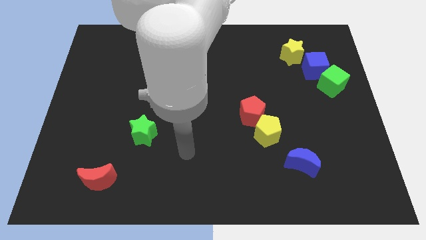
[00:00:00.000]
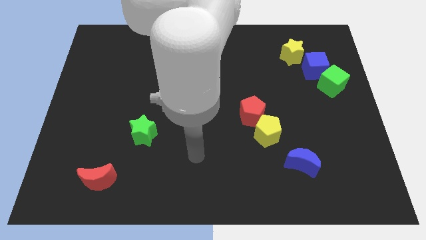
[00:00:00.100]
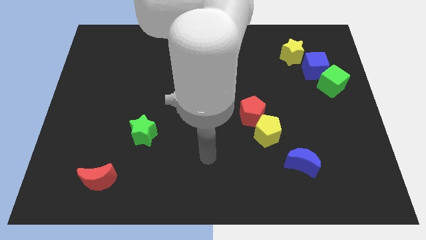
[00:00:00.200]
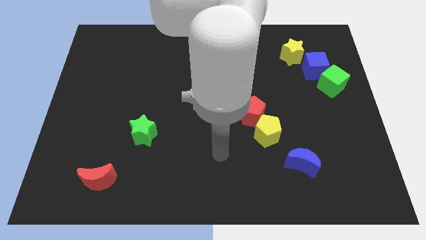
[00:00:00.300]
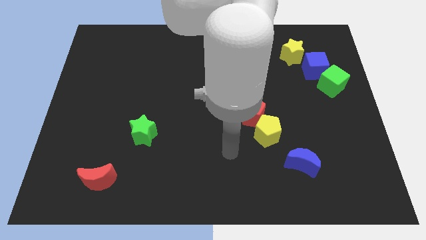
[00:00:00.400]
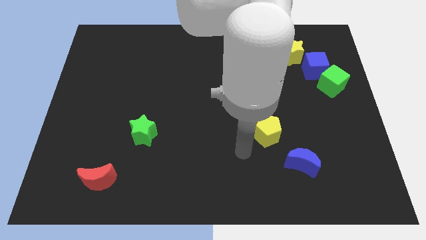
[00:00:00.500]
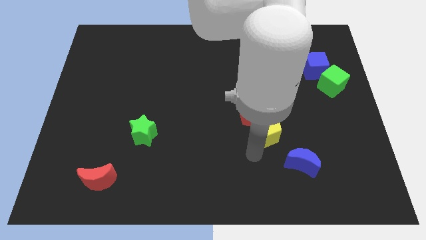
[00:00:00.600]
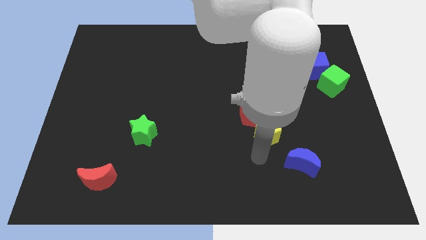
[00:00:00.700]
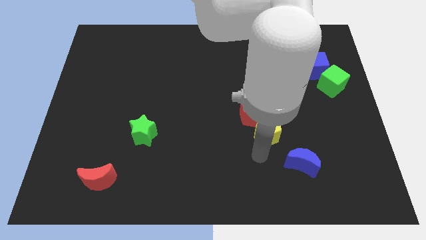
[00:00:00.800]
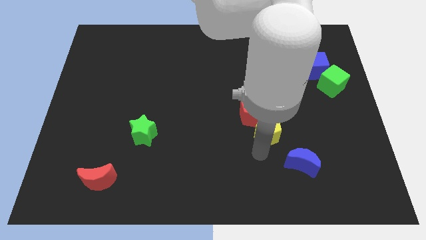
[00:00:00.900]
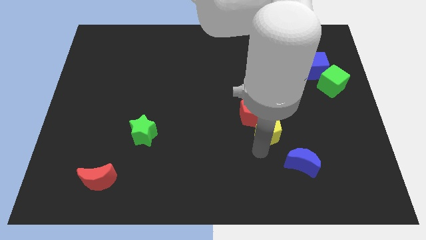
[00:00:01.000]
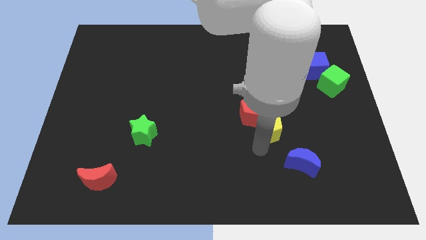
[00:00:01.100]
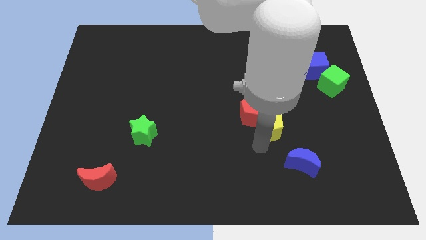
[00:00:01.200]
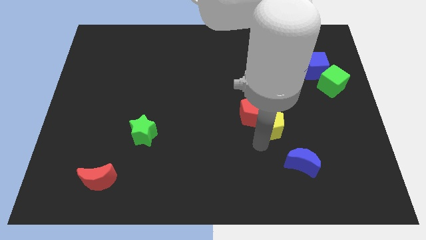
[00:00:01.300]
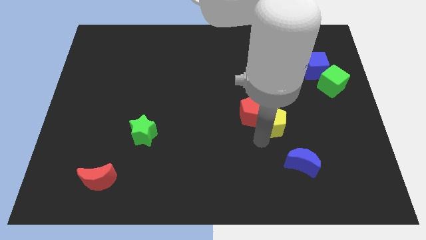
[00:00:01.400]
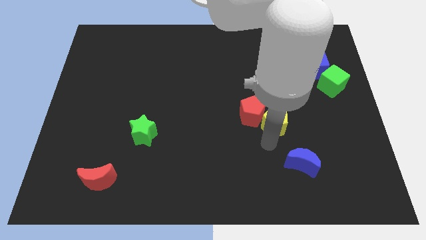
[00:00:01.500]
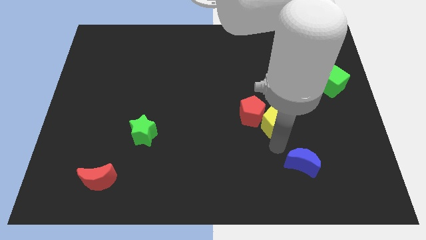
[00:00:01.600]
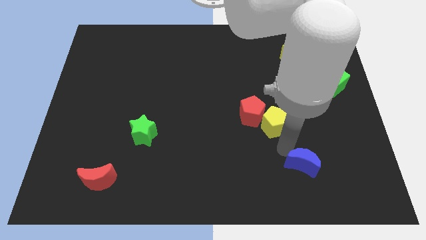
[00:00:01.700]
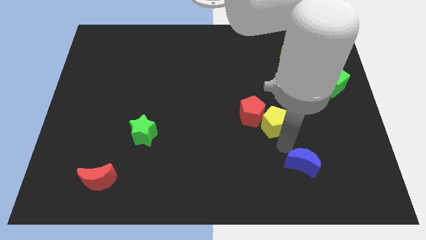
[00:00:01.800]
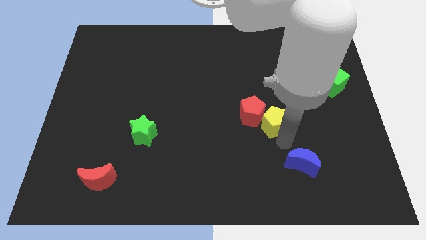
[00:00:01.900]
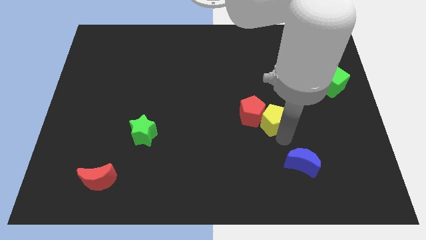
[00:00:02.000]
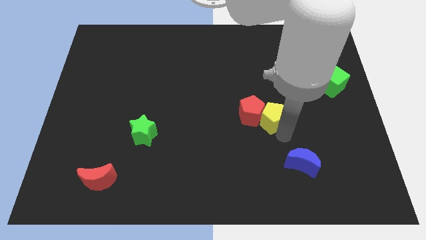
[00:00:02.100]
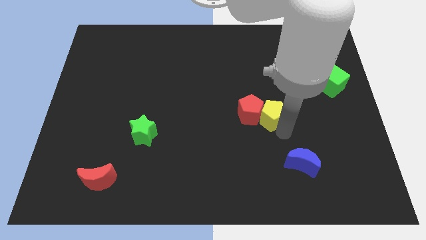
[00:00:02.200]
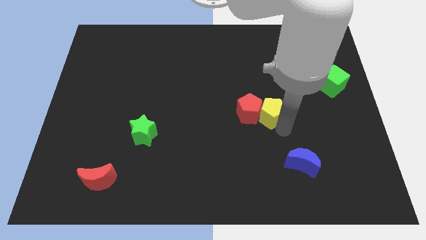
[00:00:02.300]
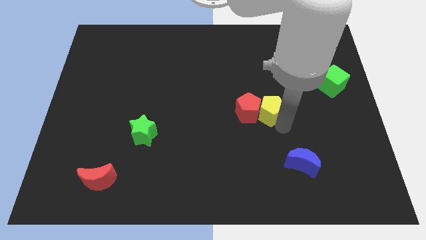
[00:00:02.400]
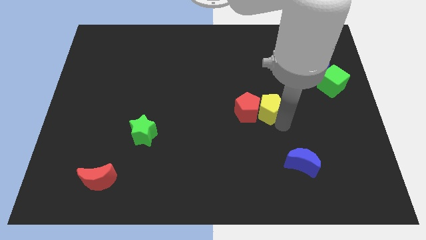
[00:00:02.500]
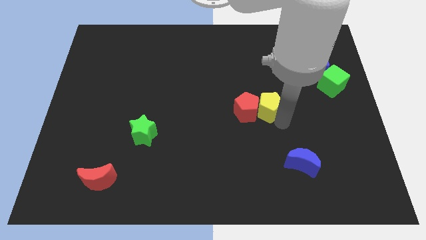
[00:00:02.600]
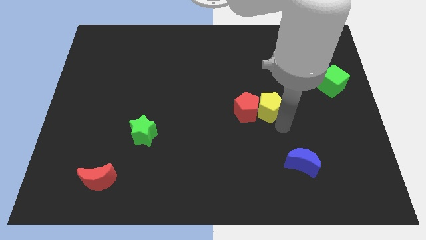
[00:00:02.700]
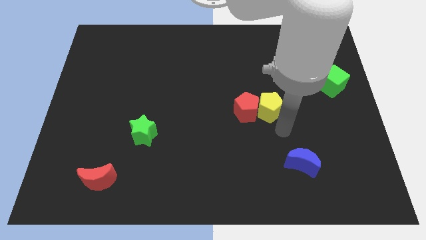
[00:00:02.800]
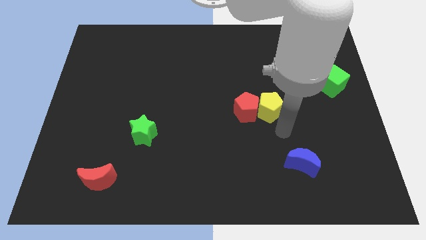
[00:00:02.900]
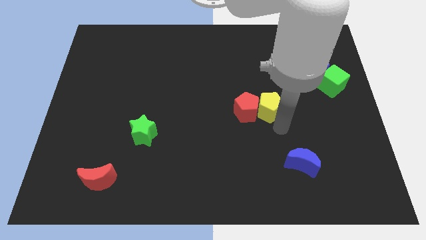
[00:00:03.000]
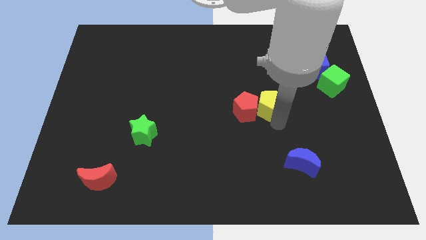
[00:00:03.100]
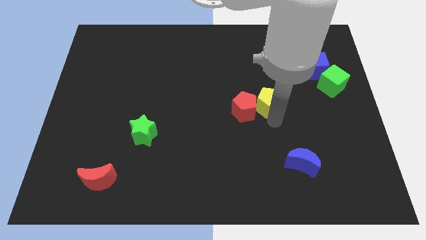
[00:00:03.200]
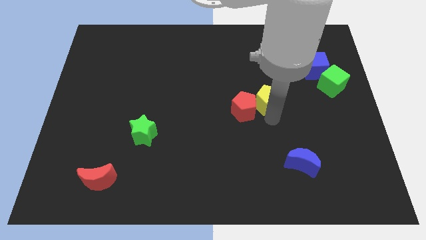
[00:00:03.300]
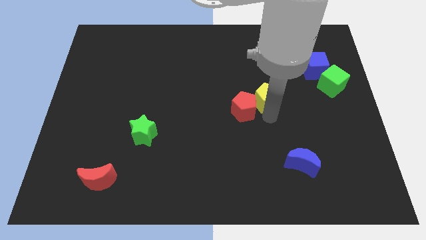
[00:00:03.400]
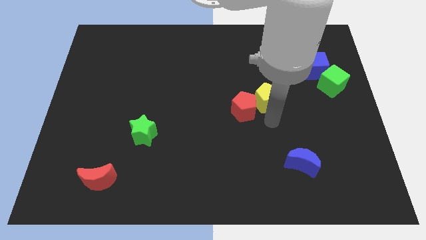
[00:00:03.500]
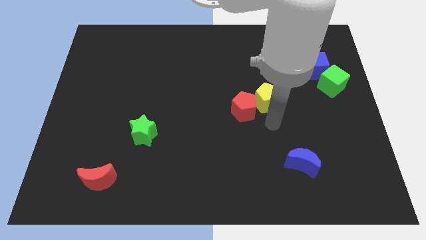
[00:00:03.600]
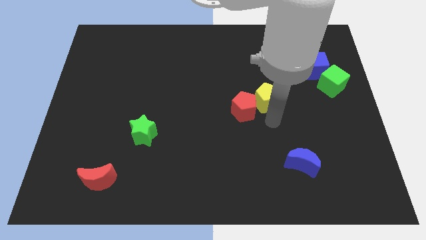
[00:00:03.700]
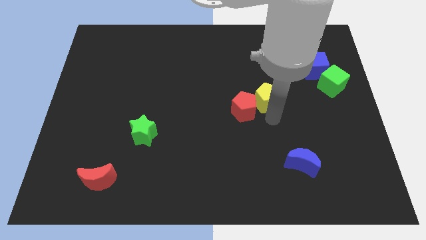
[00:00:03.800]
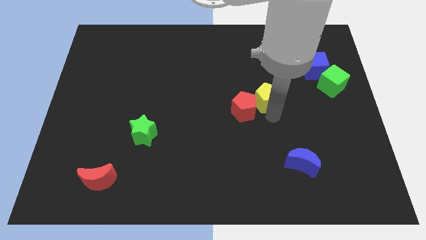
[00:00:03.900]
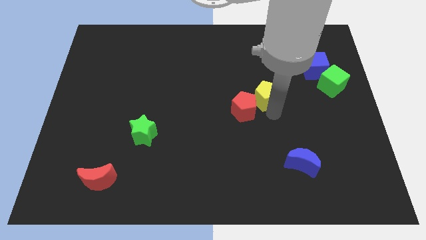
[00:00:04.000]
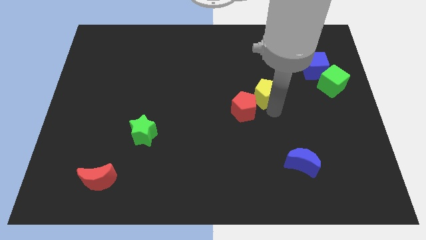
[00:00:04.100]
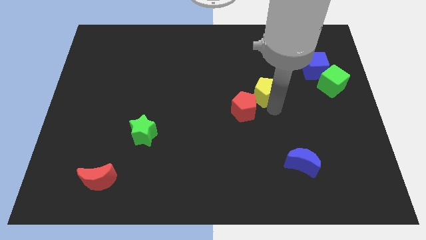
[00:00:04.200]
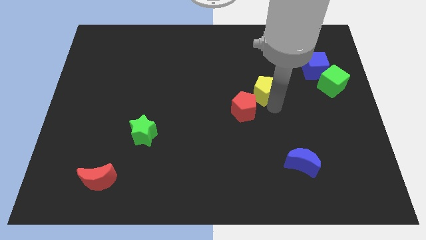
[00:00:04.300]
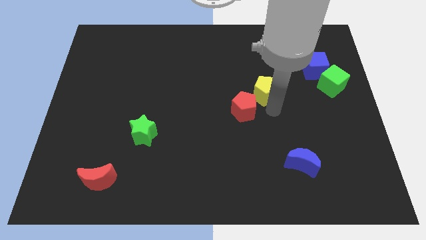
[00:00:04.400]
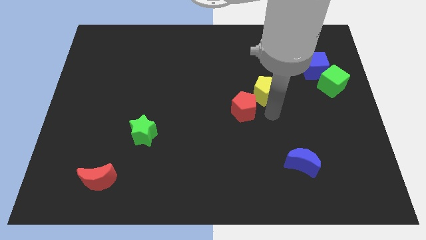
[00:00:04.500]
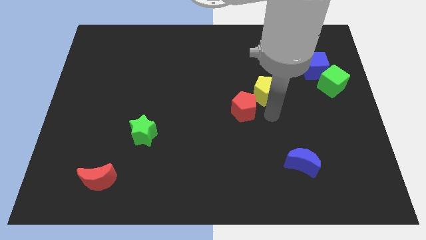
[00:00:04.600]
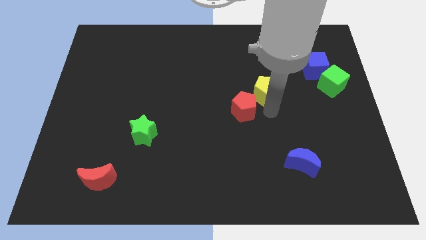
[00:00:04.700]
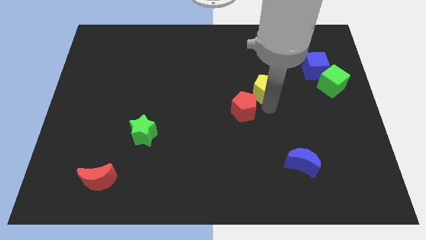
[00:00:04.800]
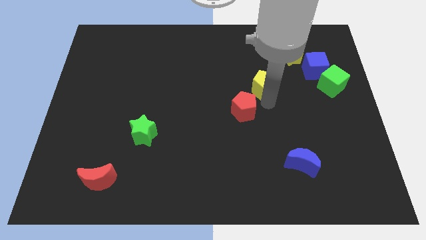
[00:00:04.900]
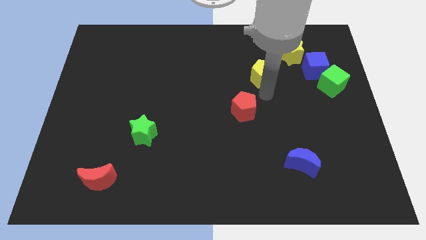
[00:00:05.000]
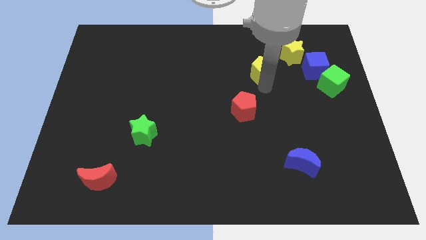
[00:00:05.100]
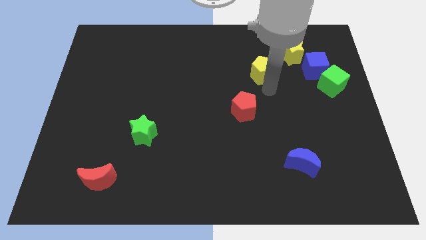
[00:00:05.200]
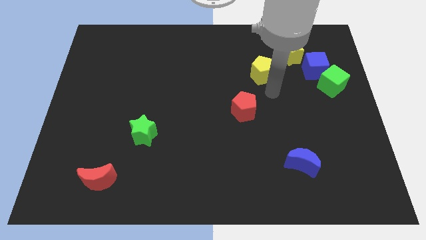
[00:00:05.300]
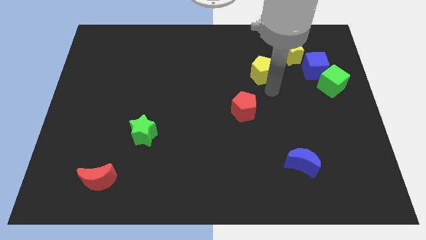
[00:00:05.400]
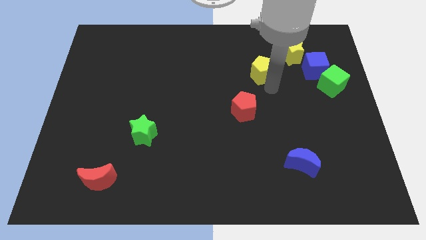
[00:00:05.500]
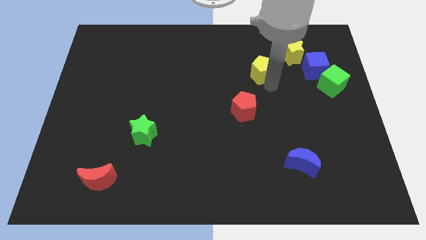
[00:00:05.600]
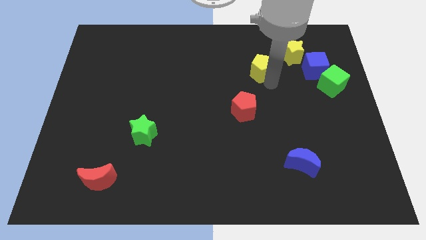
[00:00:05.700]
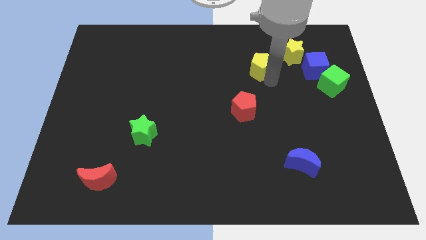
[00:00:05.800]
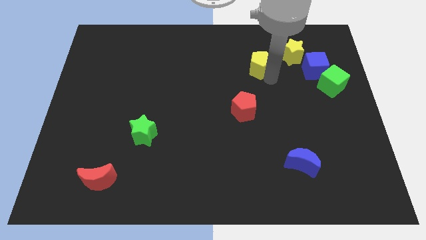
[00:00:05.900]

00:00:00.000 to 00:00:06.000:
put the yellow pentagon just left of the yellow star

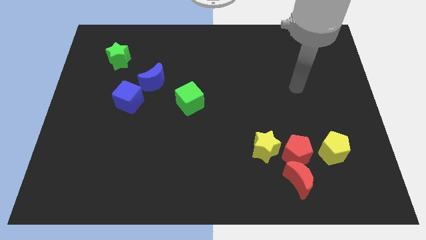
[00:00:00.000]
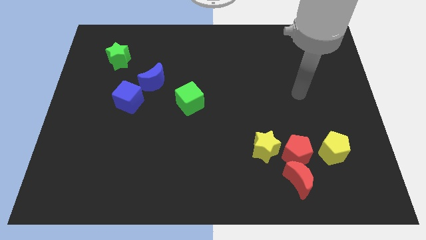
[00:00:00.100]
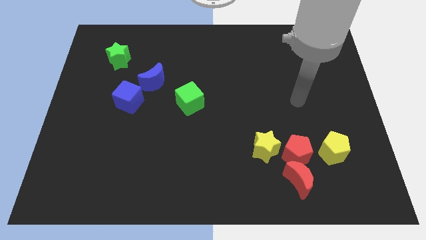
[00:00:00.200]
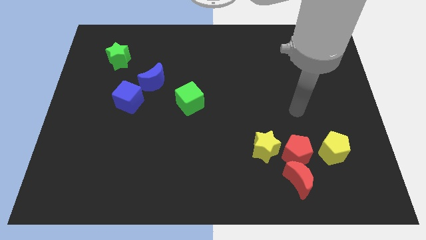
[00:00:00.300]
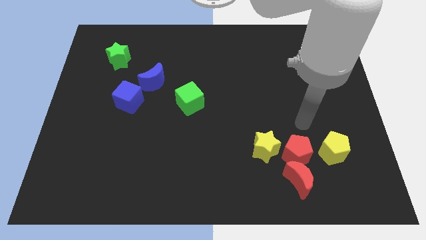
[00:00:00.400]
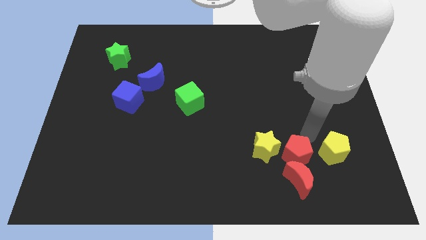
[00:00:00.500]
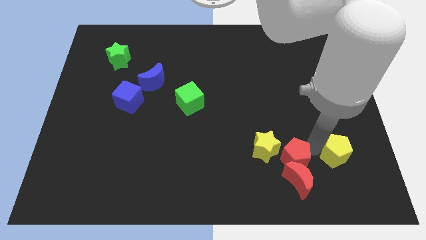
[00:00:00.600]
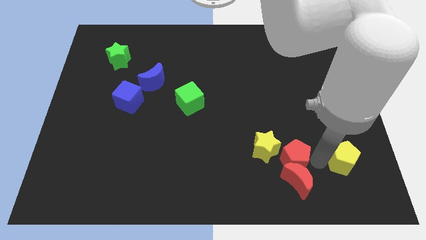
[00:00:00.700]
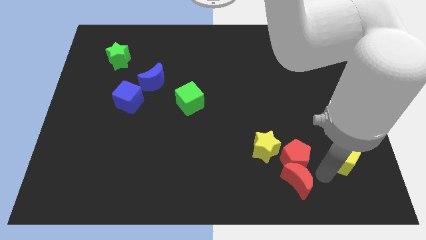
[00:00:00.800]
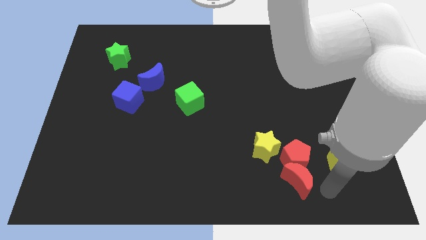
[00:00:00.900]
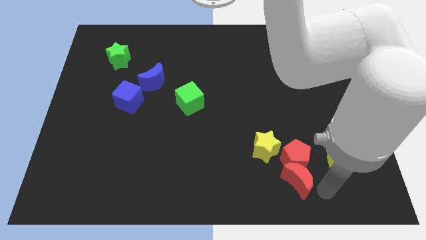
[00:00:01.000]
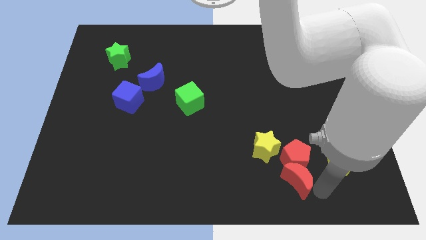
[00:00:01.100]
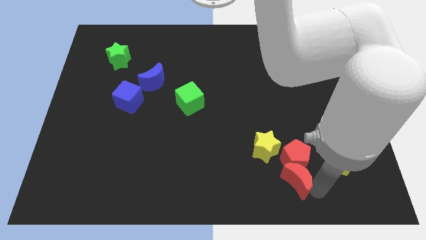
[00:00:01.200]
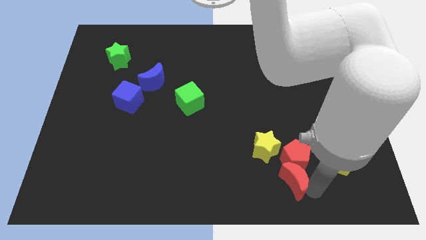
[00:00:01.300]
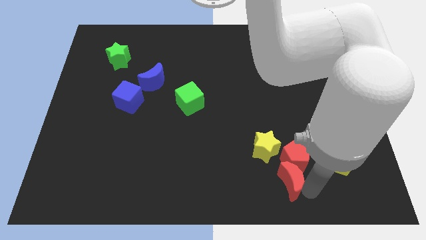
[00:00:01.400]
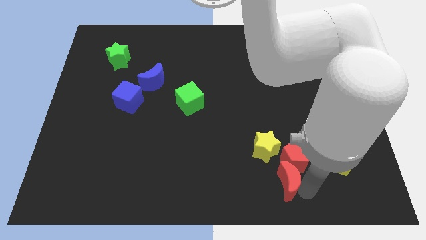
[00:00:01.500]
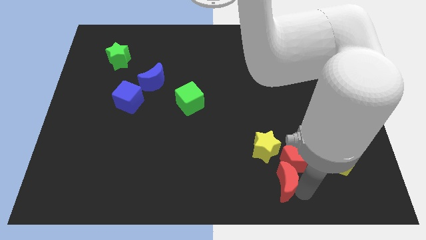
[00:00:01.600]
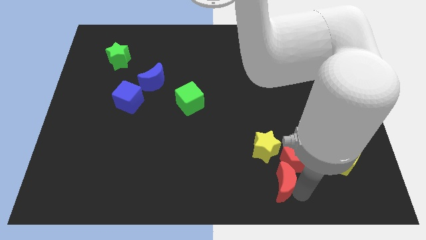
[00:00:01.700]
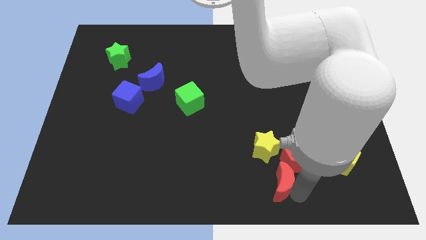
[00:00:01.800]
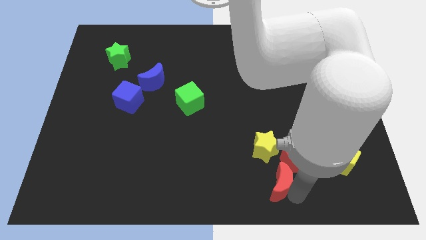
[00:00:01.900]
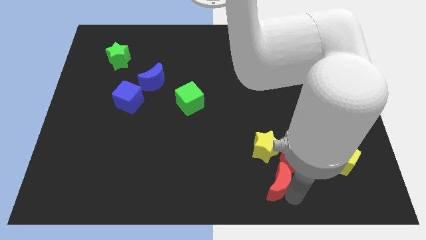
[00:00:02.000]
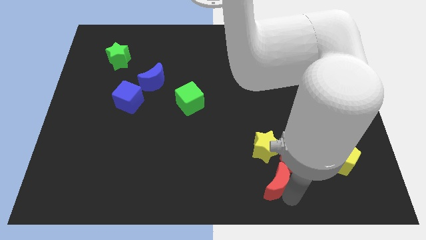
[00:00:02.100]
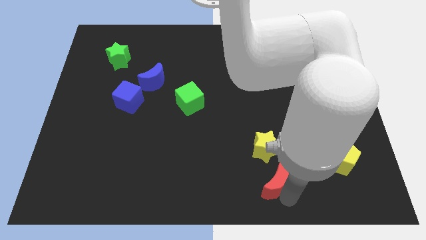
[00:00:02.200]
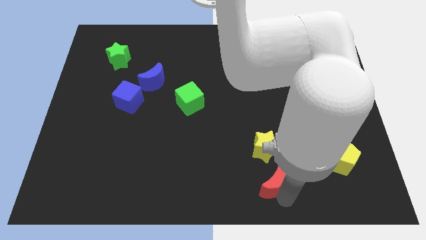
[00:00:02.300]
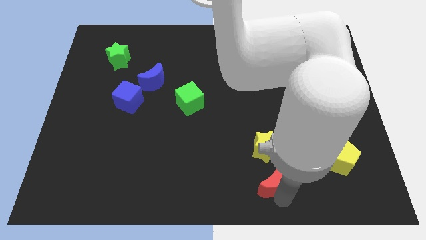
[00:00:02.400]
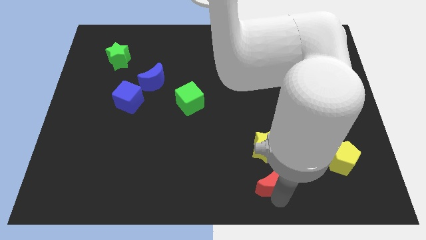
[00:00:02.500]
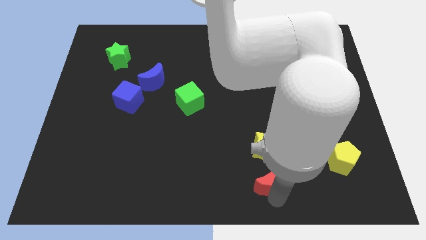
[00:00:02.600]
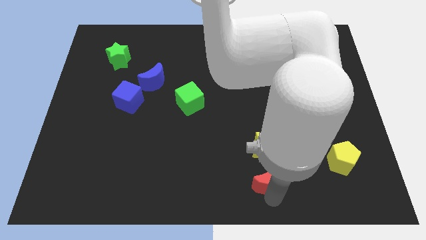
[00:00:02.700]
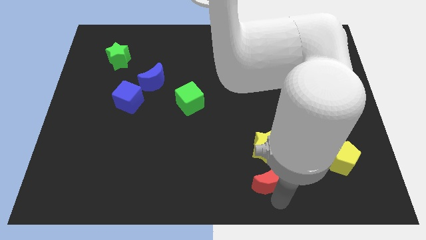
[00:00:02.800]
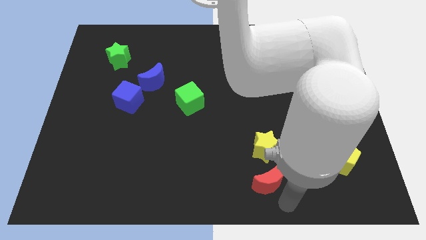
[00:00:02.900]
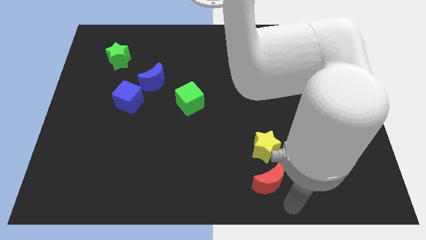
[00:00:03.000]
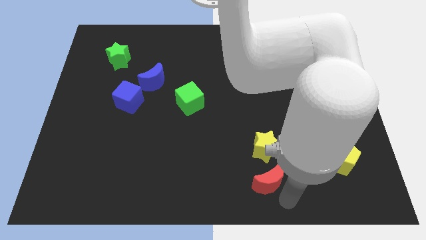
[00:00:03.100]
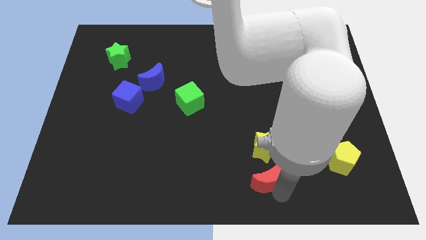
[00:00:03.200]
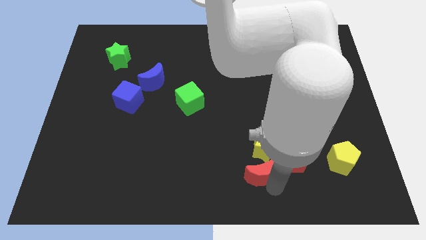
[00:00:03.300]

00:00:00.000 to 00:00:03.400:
move the red moon just left of the red pentagon
